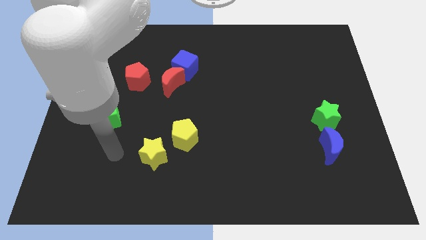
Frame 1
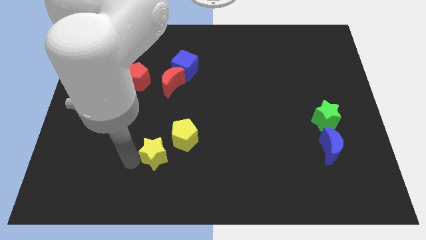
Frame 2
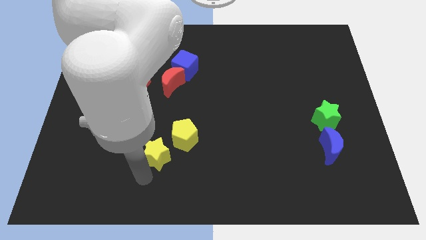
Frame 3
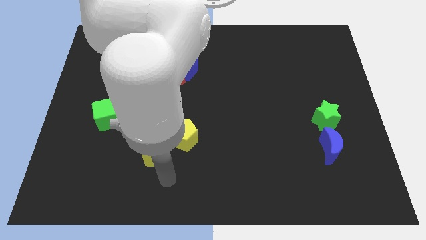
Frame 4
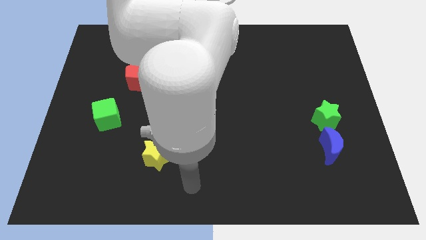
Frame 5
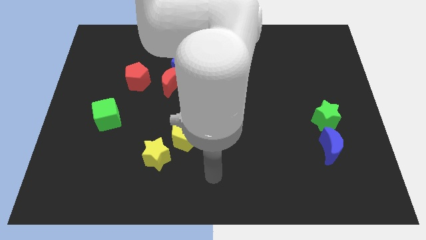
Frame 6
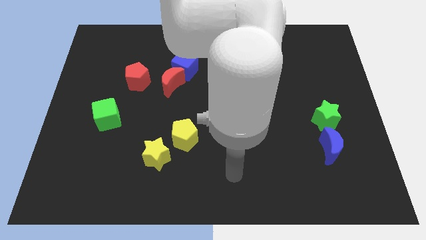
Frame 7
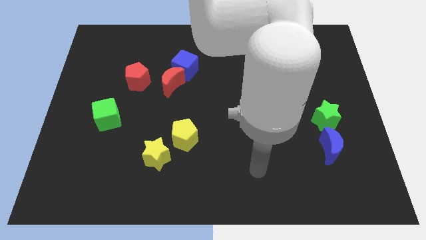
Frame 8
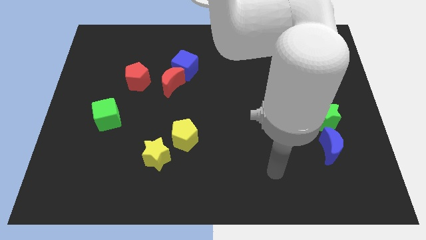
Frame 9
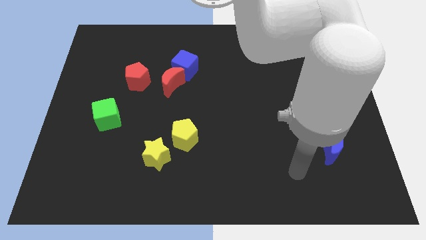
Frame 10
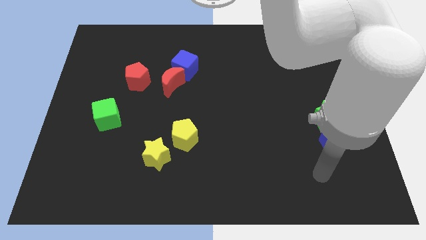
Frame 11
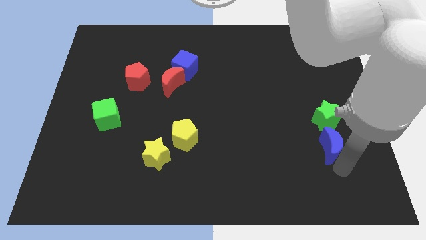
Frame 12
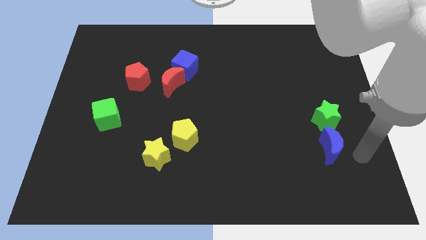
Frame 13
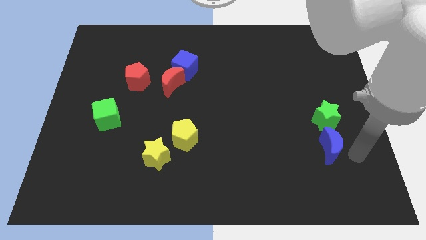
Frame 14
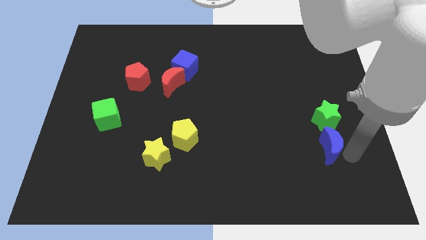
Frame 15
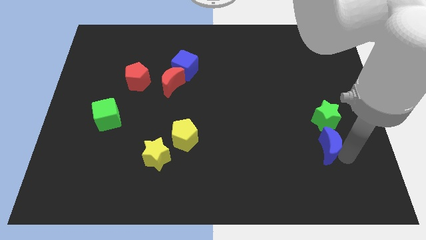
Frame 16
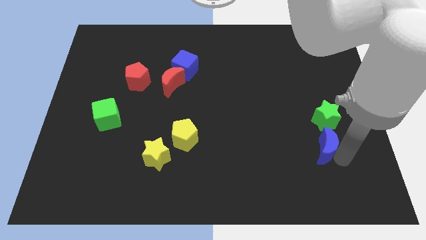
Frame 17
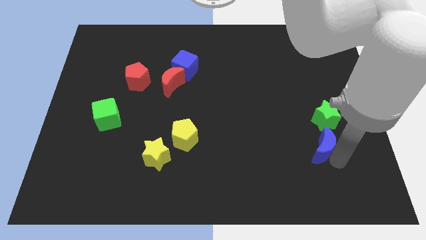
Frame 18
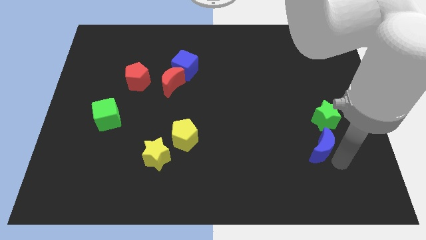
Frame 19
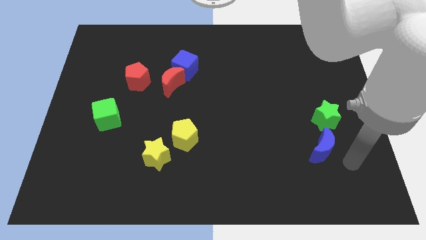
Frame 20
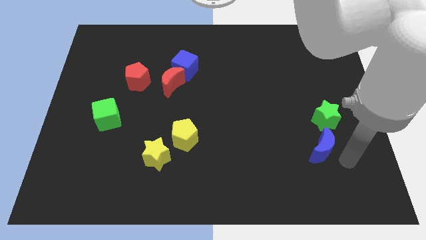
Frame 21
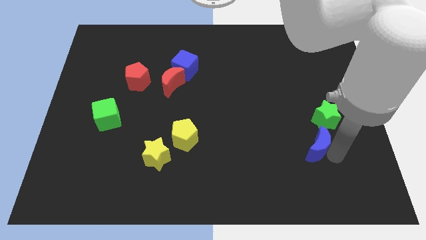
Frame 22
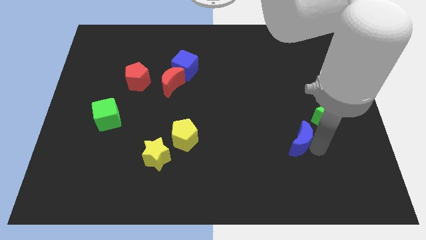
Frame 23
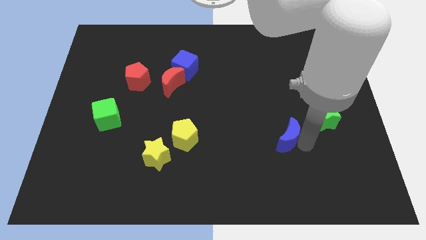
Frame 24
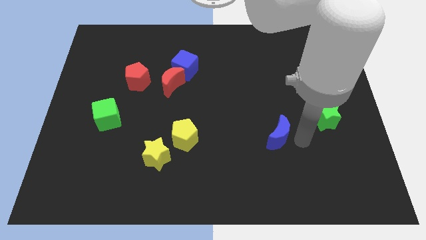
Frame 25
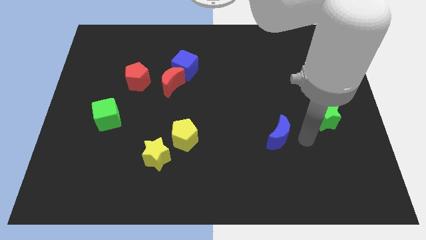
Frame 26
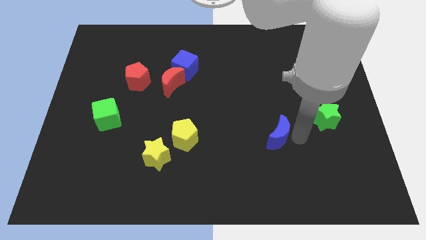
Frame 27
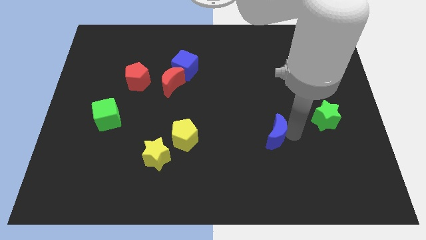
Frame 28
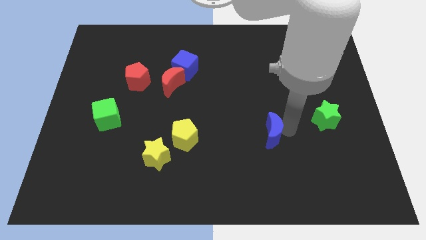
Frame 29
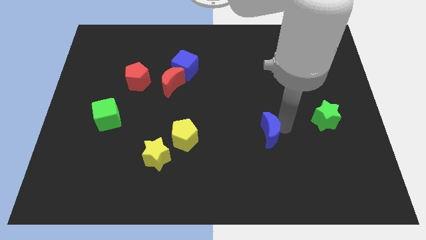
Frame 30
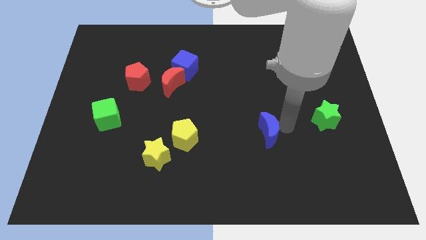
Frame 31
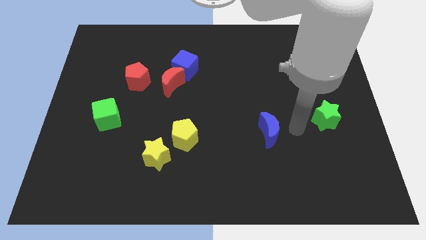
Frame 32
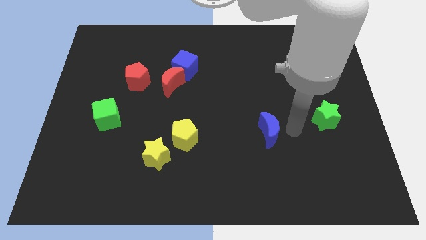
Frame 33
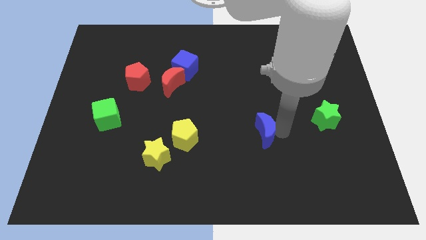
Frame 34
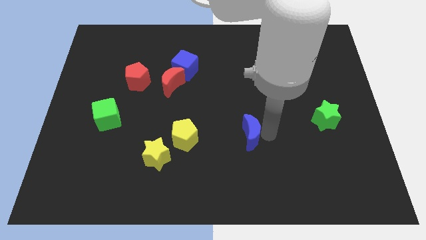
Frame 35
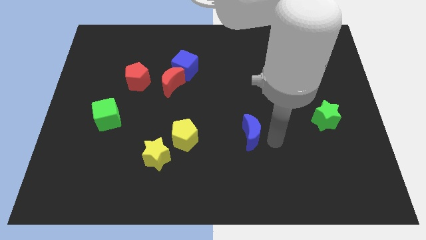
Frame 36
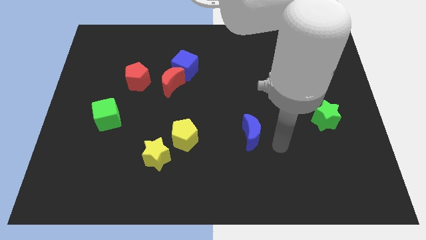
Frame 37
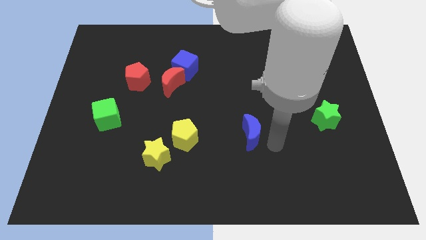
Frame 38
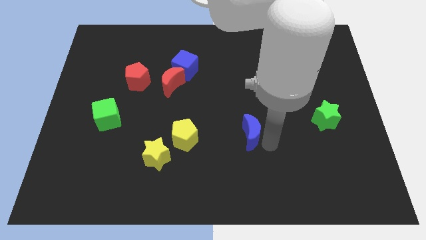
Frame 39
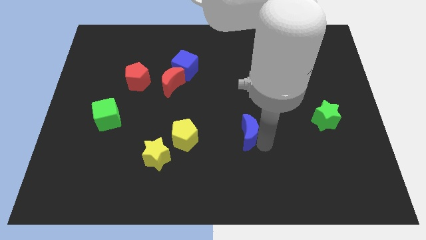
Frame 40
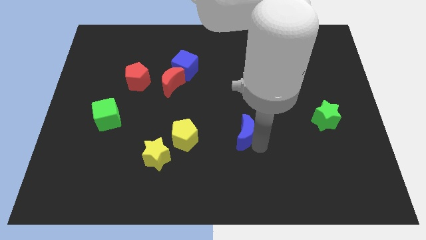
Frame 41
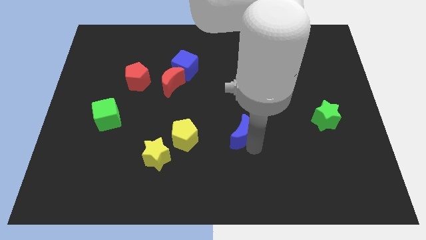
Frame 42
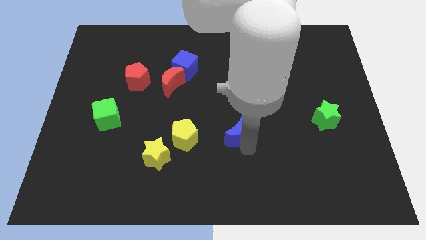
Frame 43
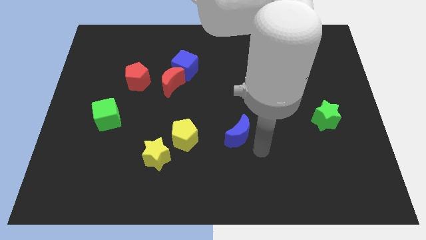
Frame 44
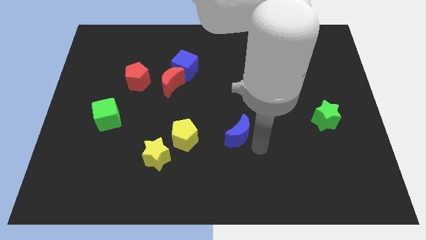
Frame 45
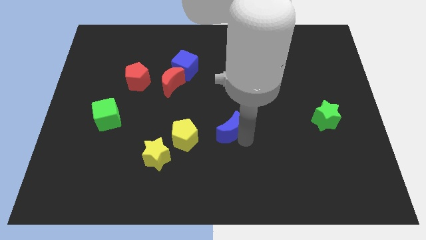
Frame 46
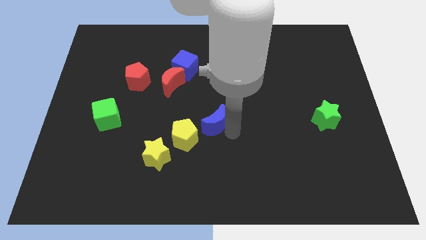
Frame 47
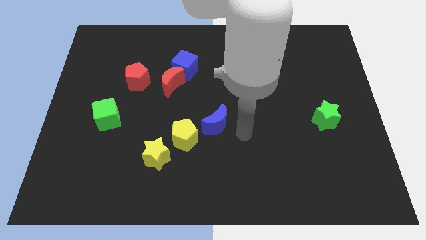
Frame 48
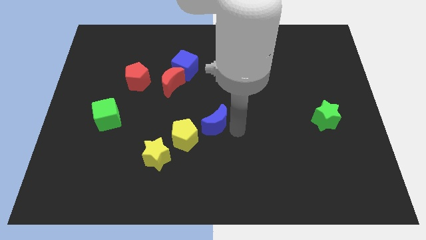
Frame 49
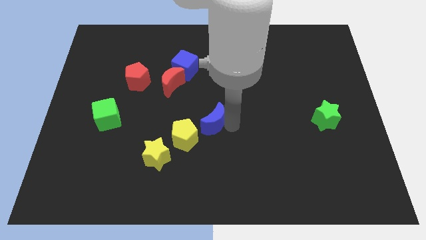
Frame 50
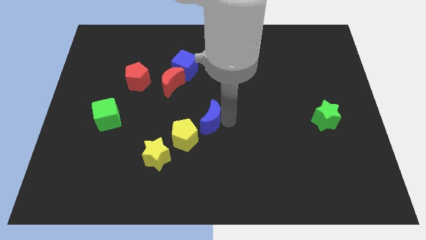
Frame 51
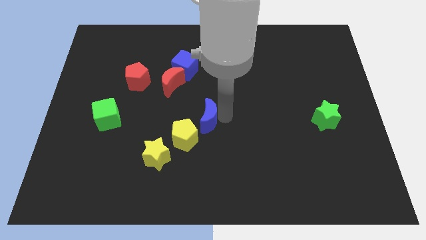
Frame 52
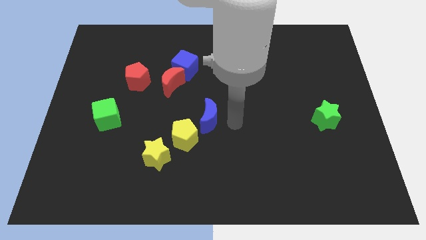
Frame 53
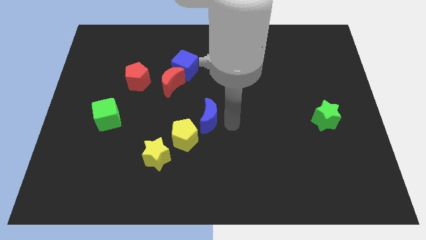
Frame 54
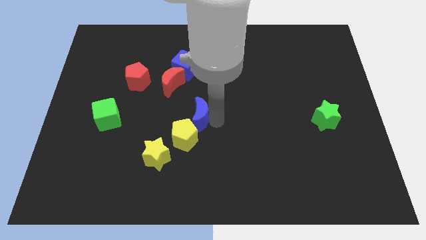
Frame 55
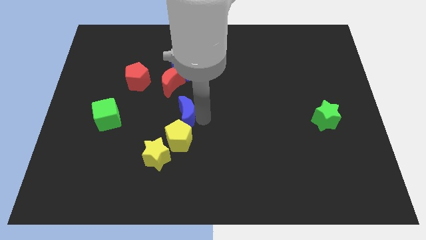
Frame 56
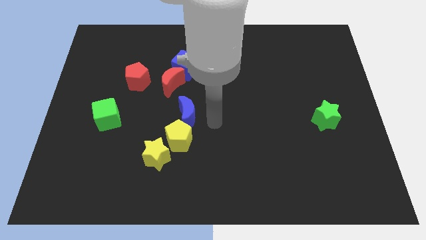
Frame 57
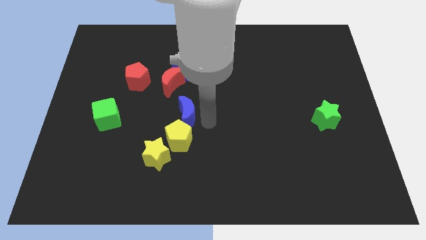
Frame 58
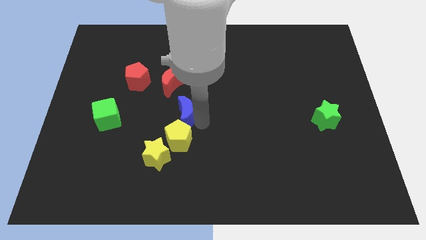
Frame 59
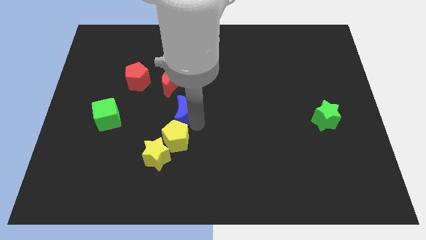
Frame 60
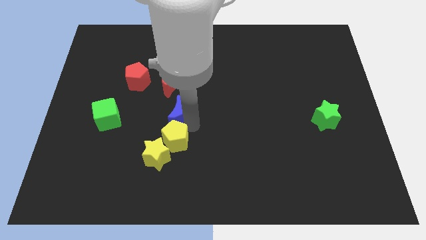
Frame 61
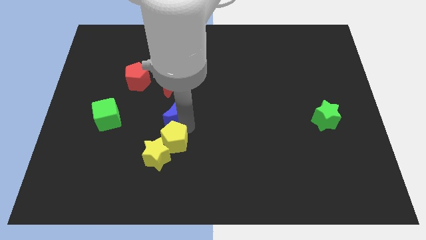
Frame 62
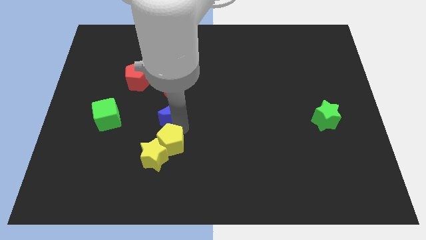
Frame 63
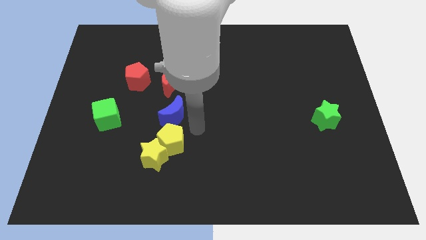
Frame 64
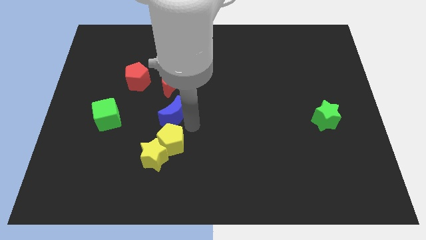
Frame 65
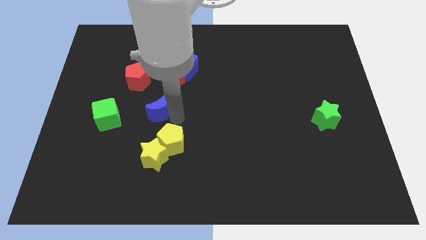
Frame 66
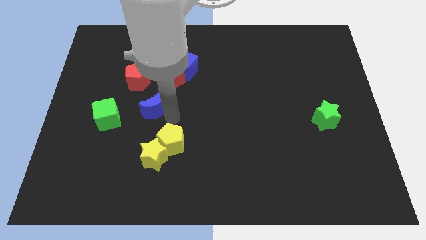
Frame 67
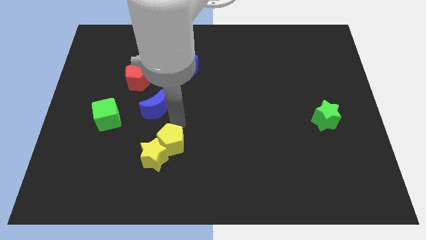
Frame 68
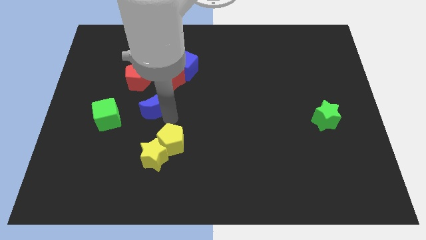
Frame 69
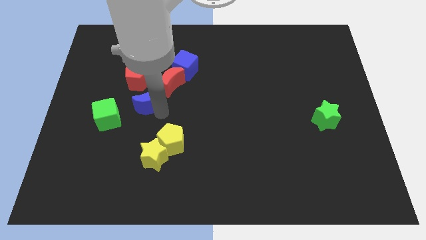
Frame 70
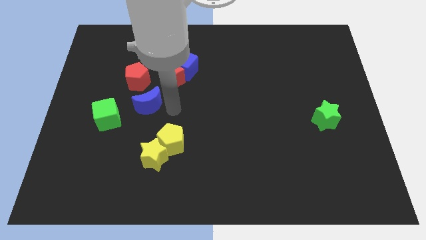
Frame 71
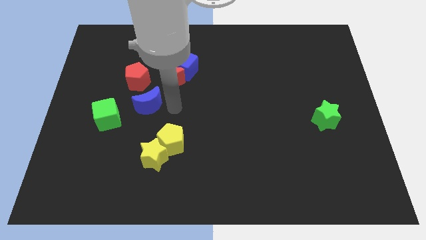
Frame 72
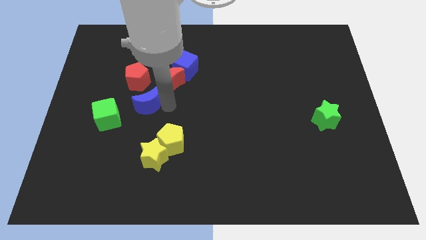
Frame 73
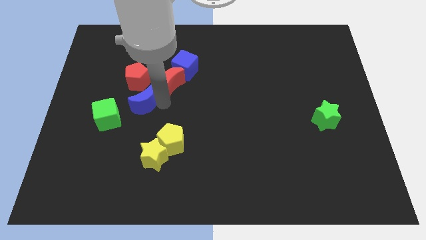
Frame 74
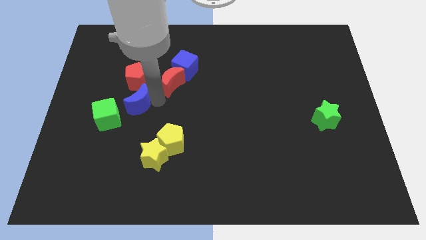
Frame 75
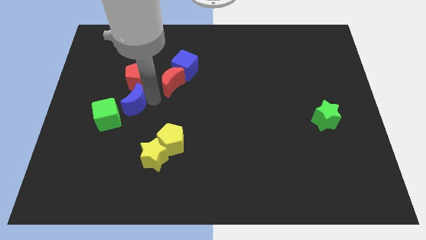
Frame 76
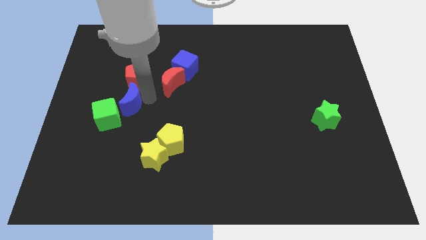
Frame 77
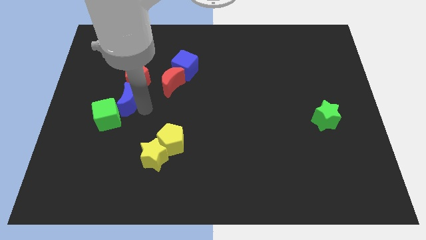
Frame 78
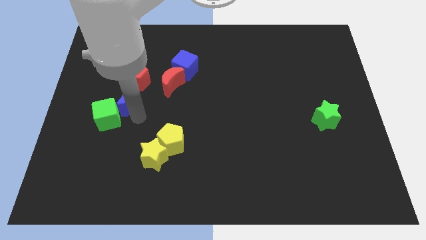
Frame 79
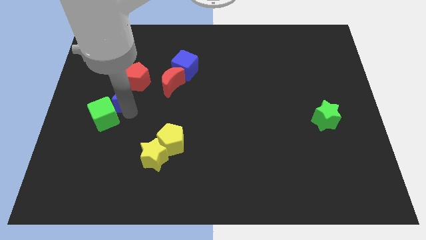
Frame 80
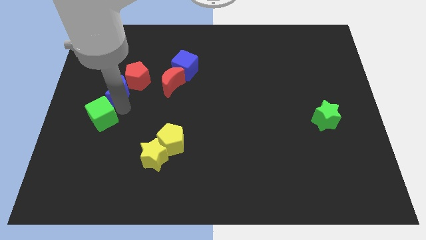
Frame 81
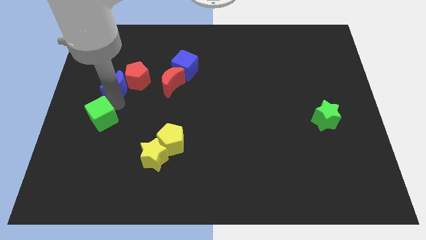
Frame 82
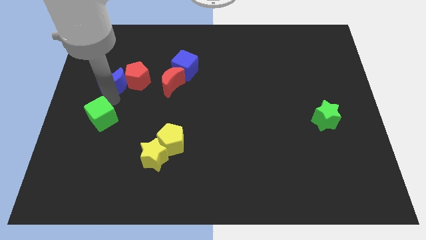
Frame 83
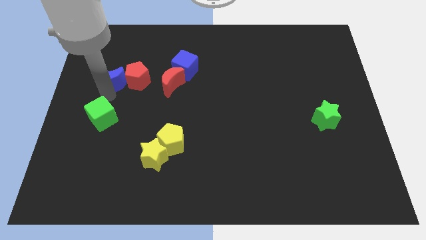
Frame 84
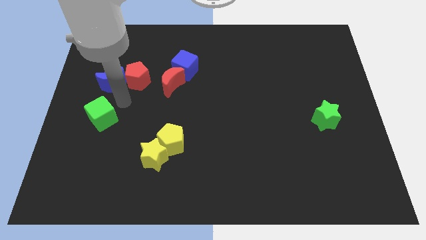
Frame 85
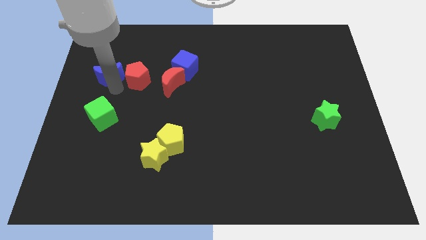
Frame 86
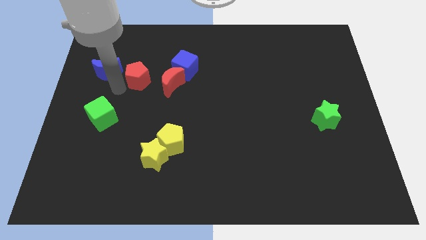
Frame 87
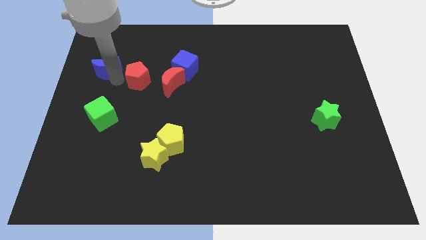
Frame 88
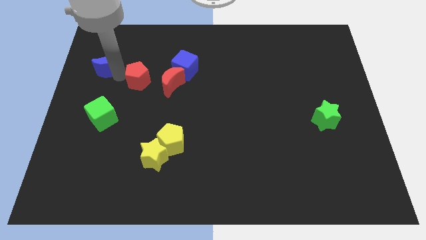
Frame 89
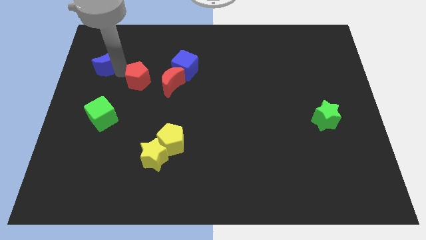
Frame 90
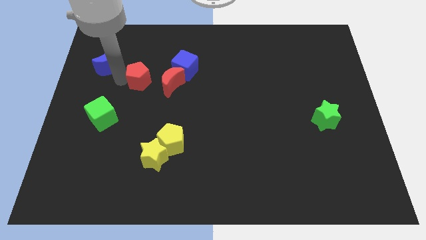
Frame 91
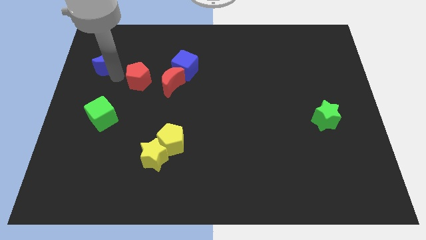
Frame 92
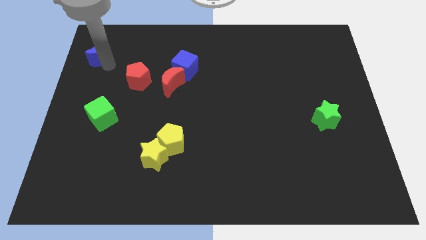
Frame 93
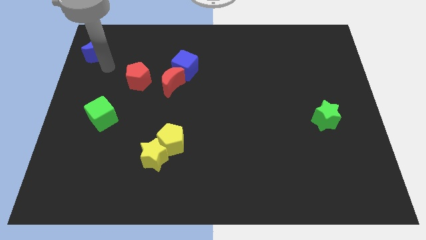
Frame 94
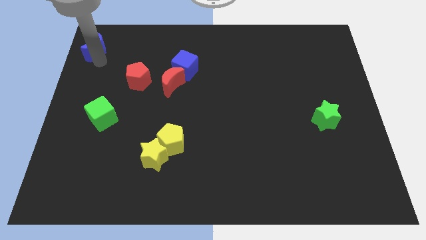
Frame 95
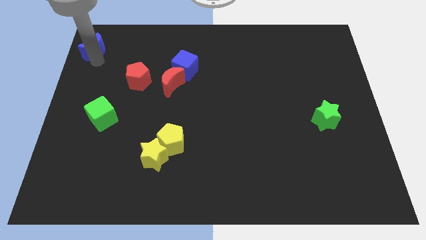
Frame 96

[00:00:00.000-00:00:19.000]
put the blue moon to the upper left corner
